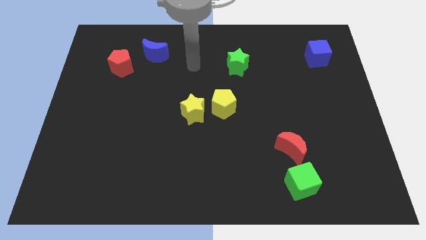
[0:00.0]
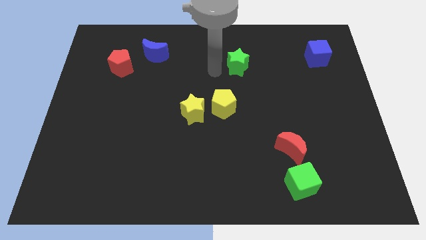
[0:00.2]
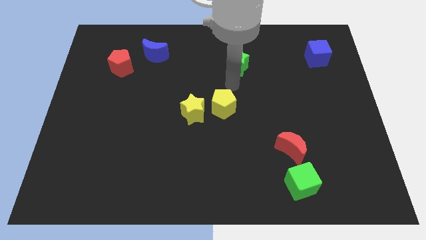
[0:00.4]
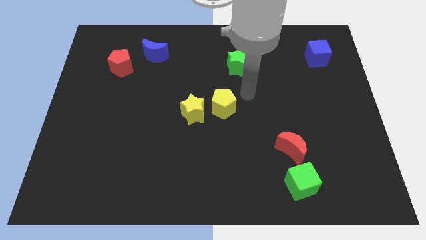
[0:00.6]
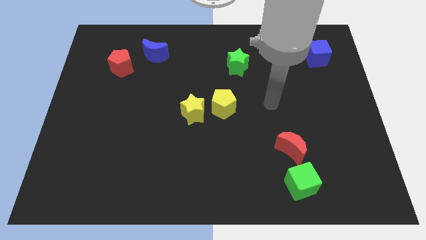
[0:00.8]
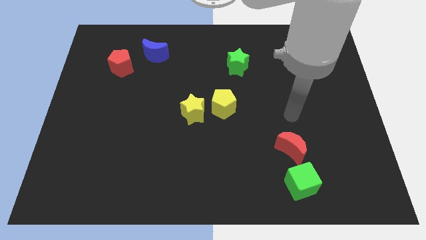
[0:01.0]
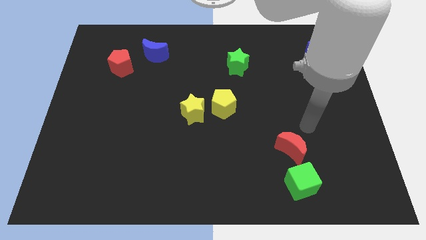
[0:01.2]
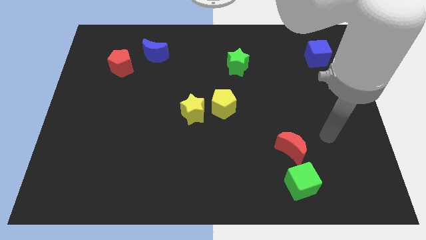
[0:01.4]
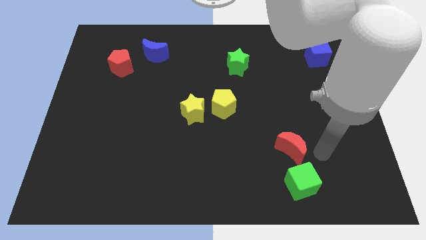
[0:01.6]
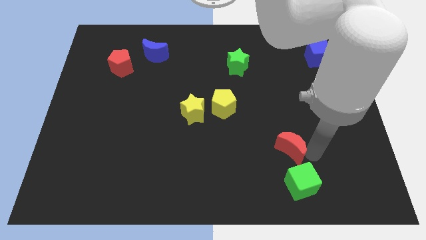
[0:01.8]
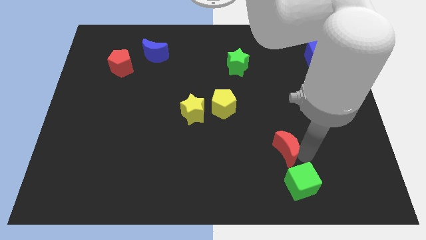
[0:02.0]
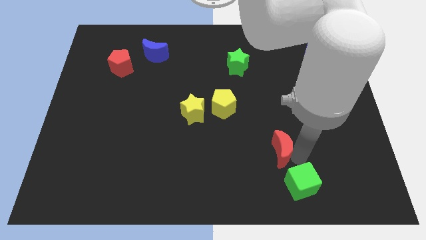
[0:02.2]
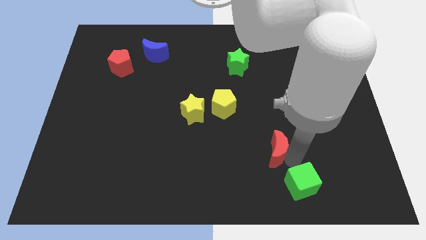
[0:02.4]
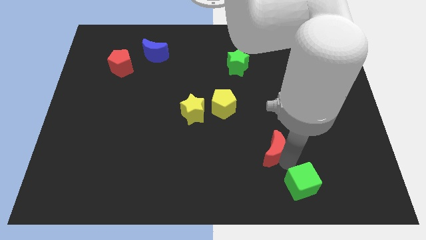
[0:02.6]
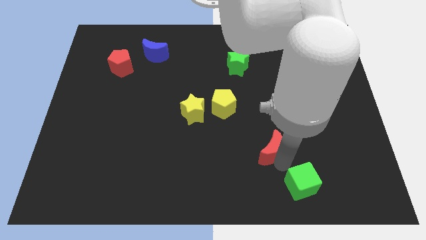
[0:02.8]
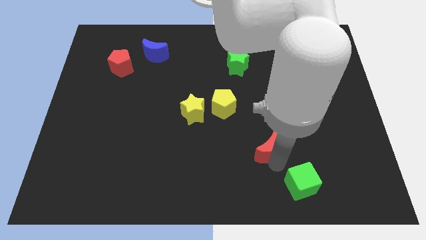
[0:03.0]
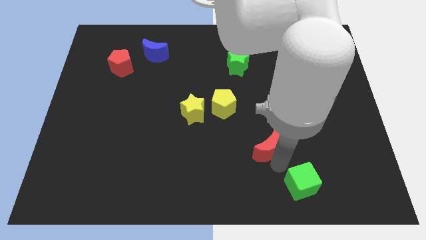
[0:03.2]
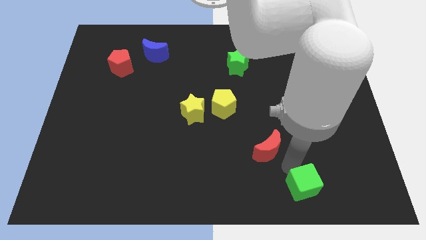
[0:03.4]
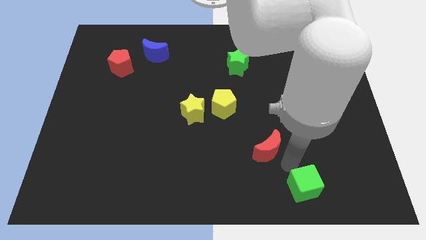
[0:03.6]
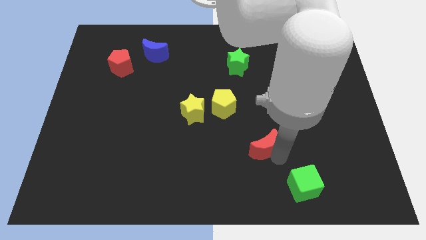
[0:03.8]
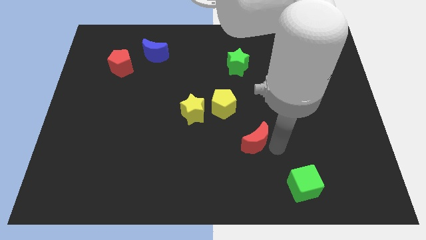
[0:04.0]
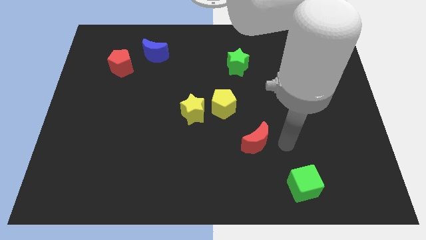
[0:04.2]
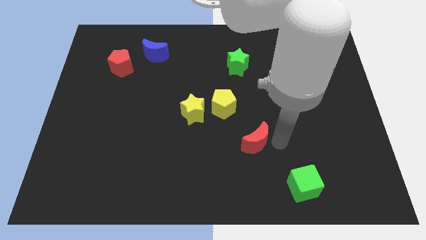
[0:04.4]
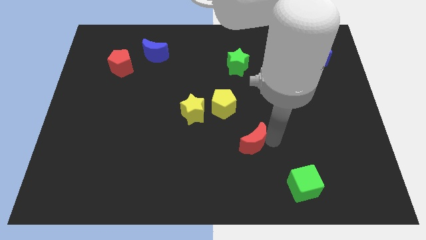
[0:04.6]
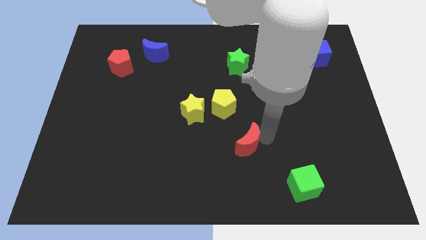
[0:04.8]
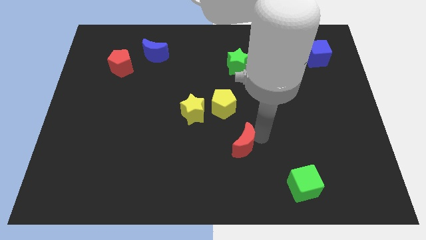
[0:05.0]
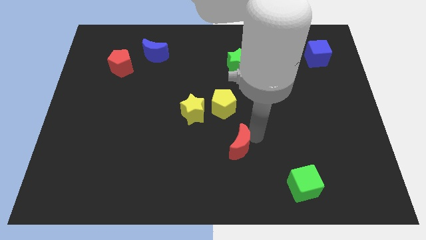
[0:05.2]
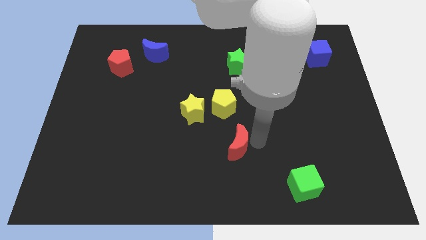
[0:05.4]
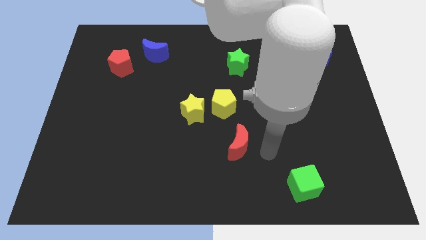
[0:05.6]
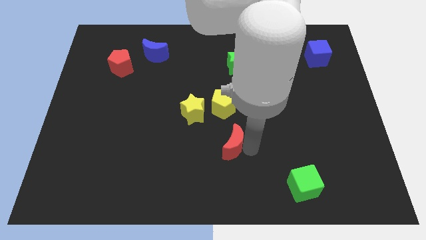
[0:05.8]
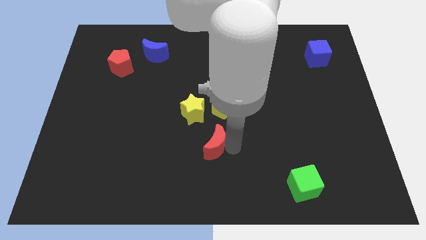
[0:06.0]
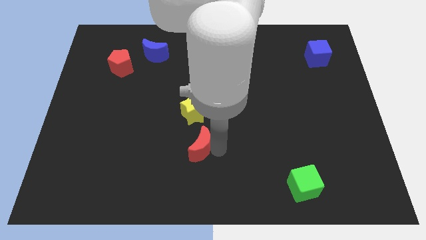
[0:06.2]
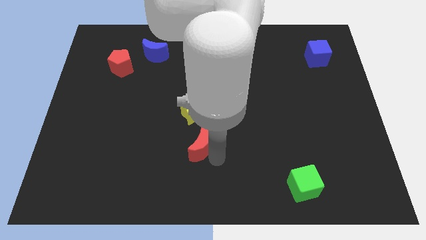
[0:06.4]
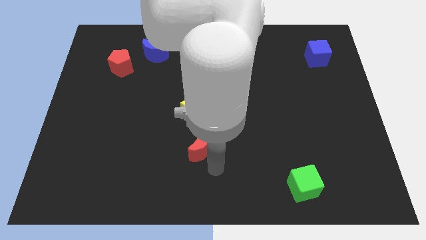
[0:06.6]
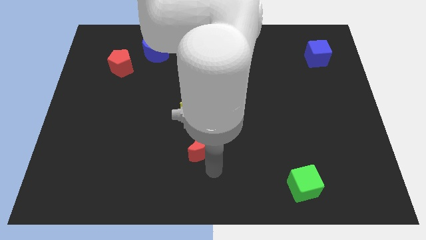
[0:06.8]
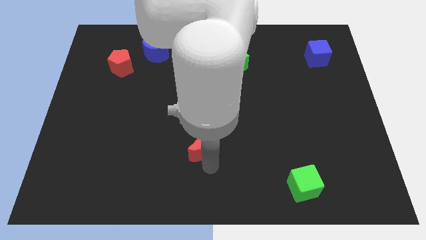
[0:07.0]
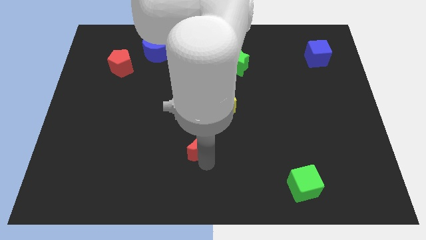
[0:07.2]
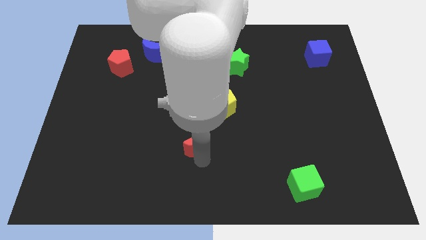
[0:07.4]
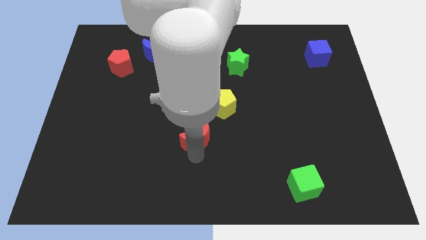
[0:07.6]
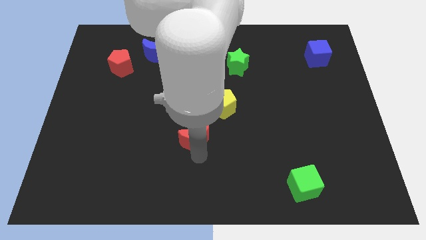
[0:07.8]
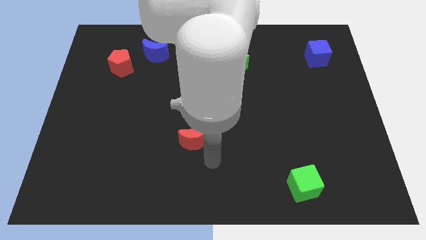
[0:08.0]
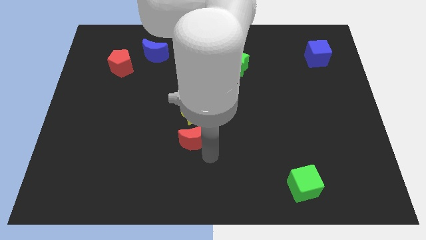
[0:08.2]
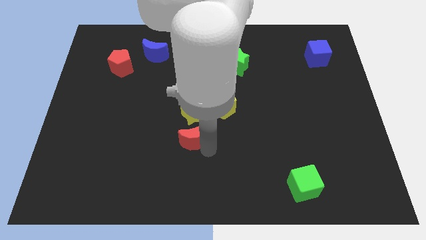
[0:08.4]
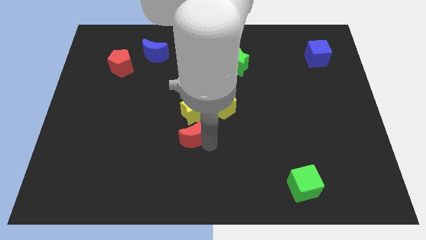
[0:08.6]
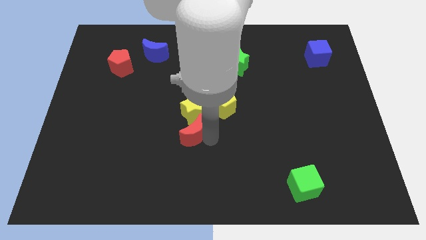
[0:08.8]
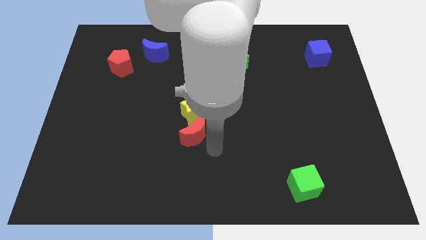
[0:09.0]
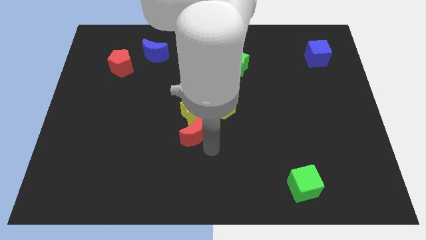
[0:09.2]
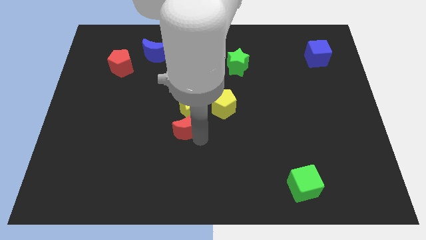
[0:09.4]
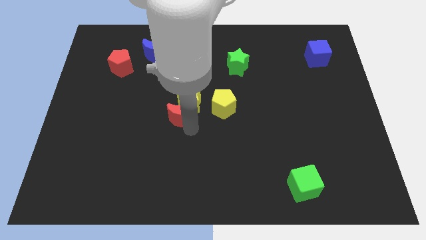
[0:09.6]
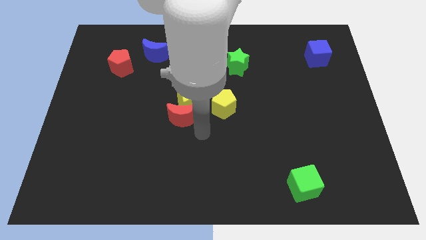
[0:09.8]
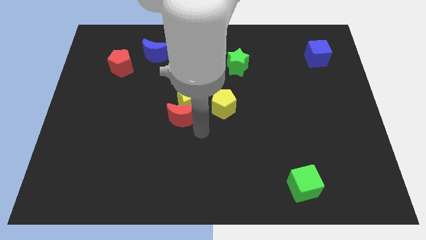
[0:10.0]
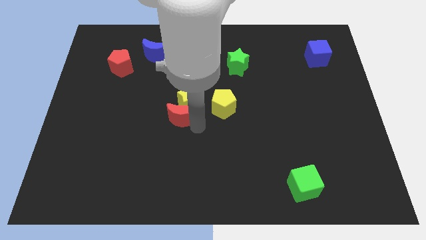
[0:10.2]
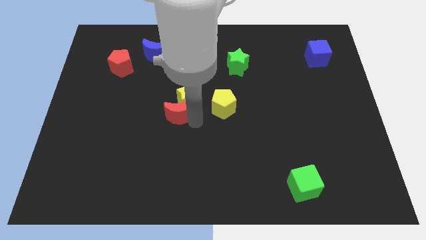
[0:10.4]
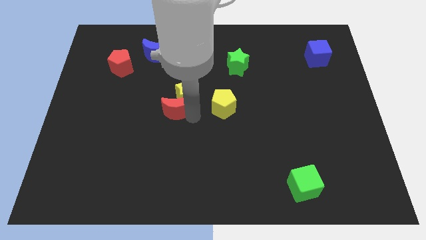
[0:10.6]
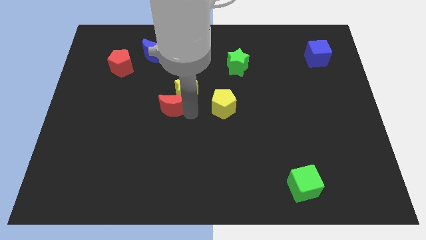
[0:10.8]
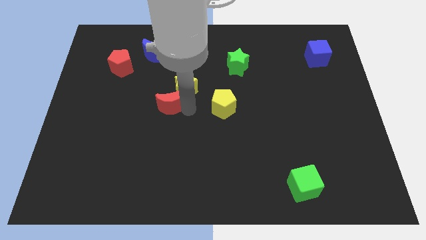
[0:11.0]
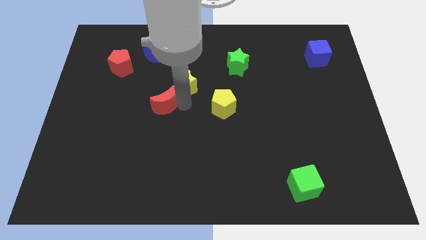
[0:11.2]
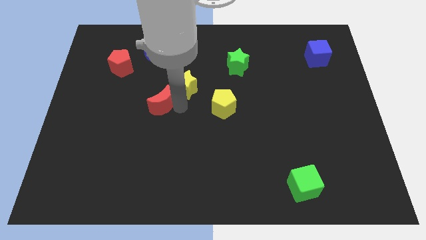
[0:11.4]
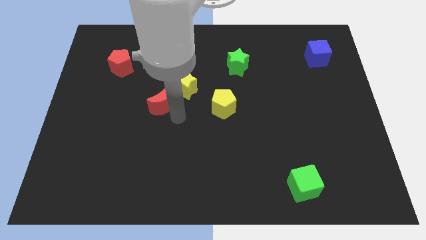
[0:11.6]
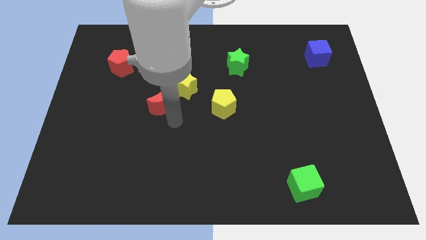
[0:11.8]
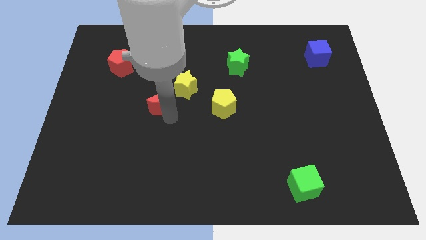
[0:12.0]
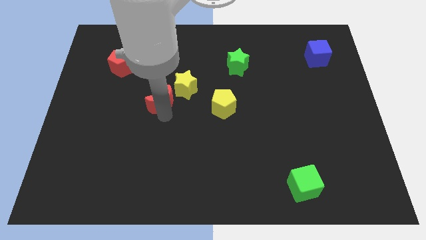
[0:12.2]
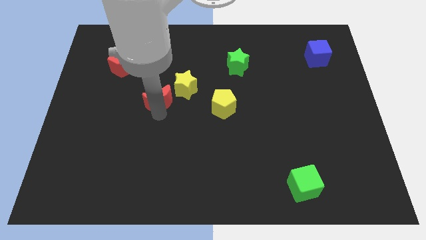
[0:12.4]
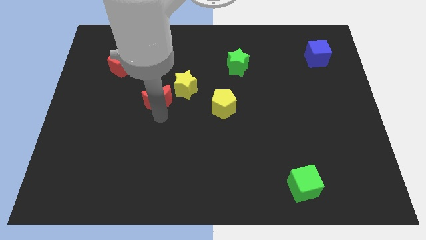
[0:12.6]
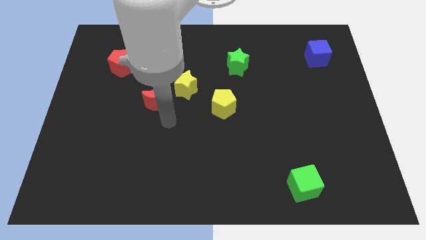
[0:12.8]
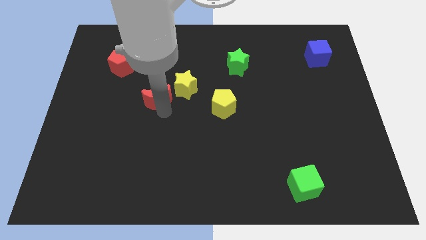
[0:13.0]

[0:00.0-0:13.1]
put the red moon below the blue moon

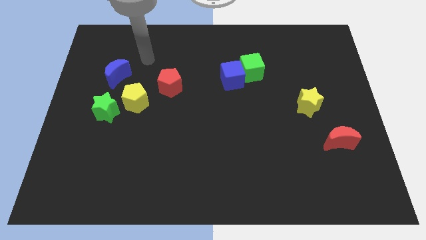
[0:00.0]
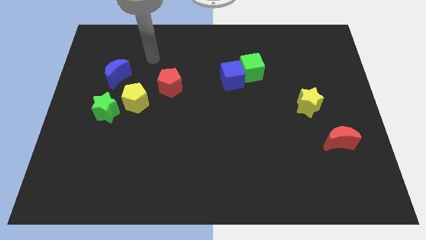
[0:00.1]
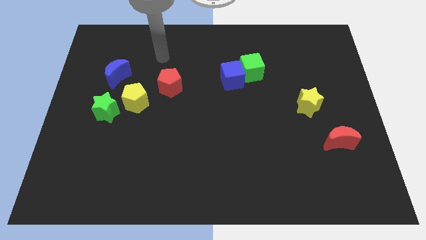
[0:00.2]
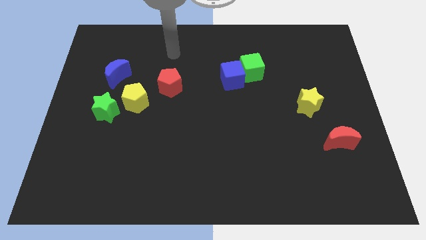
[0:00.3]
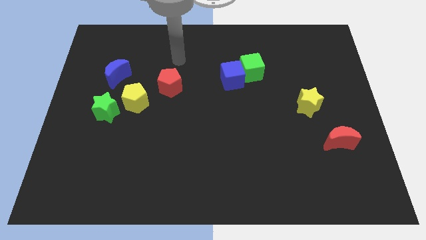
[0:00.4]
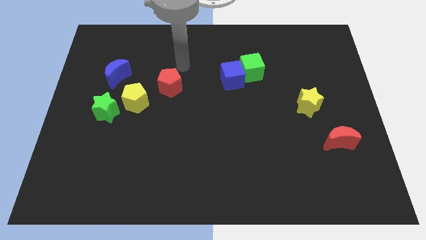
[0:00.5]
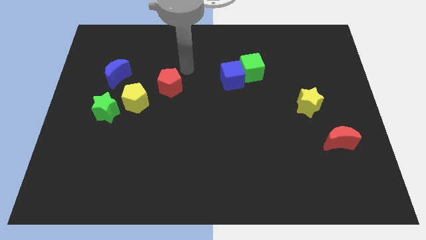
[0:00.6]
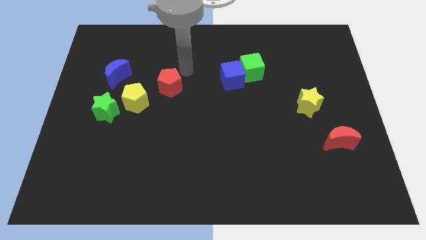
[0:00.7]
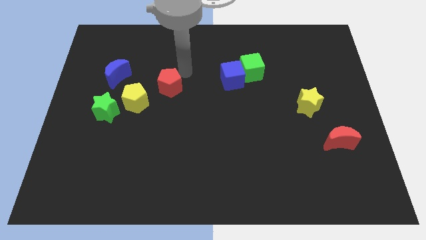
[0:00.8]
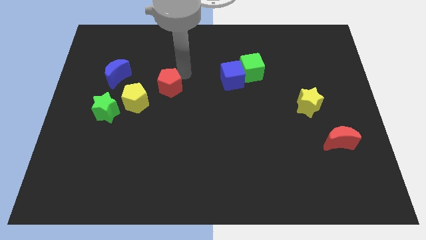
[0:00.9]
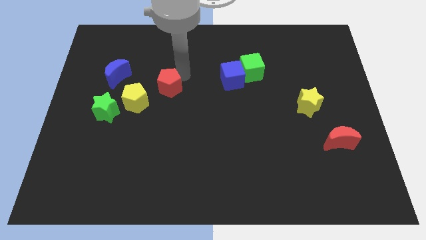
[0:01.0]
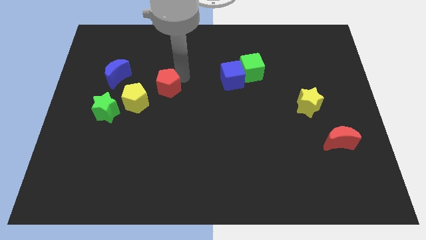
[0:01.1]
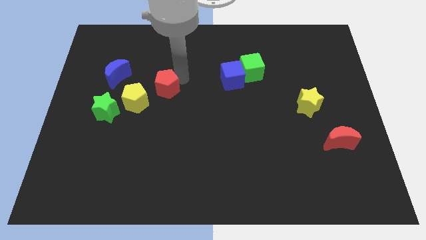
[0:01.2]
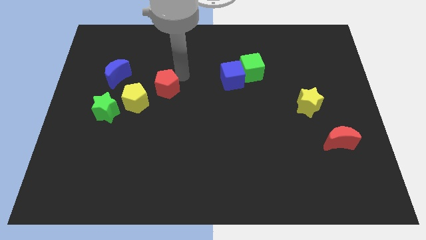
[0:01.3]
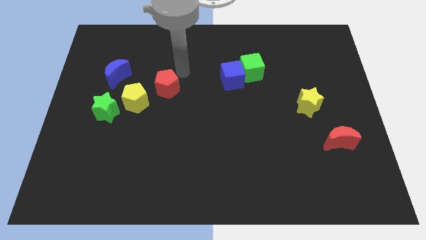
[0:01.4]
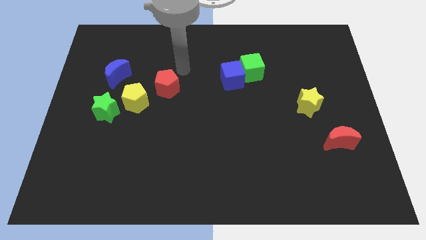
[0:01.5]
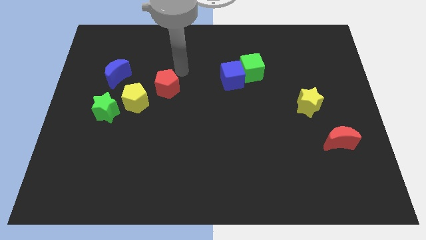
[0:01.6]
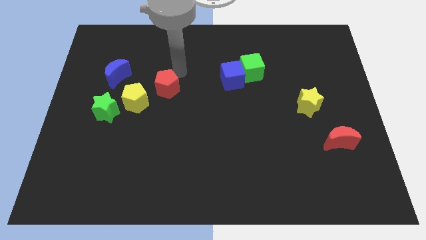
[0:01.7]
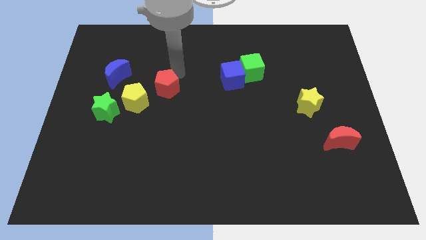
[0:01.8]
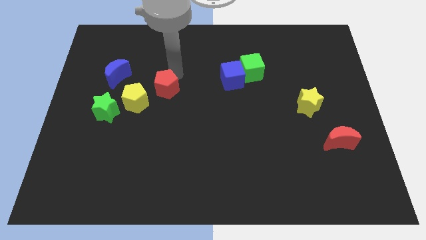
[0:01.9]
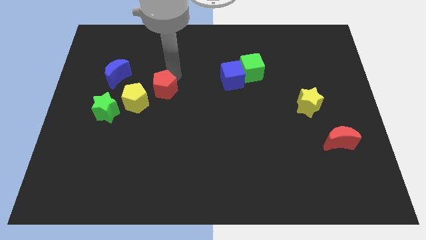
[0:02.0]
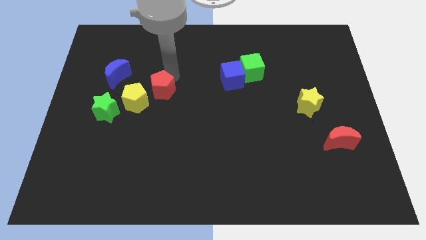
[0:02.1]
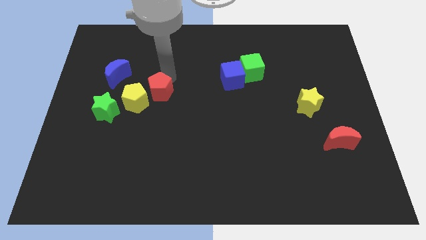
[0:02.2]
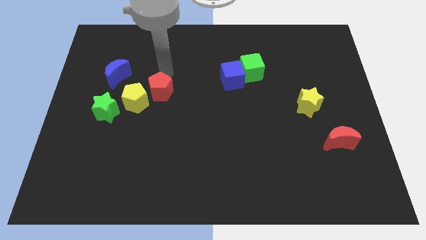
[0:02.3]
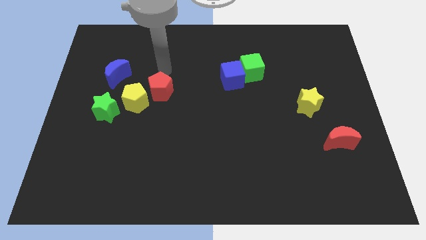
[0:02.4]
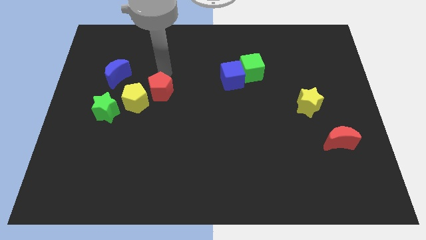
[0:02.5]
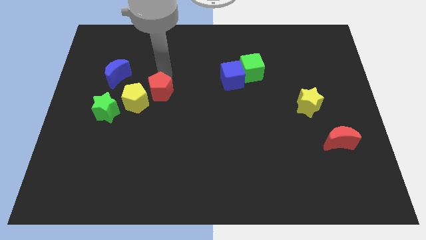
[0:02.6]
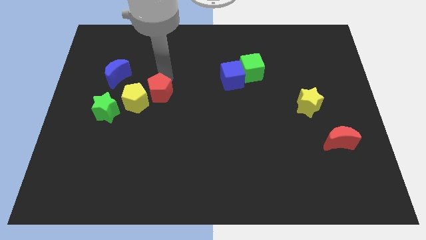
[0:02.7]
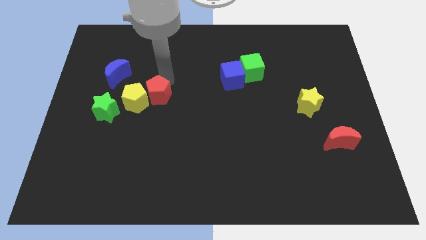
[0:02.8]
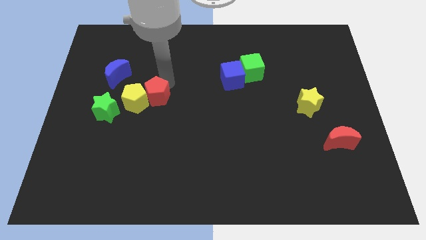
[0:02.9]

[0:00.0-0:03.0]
move the red pentagon to the bottom right side of the yellow pentagon
